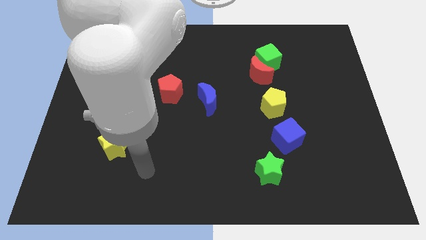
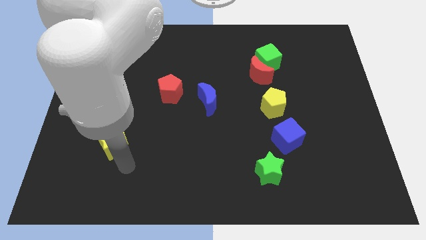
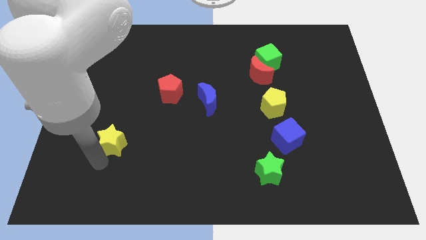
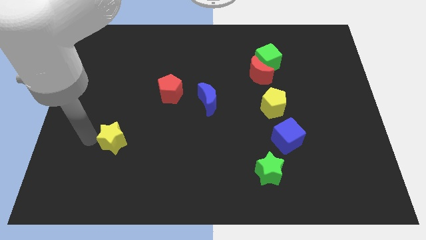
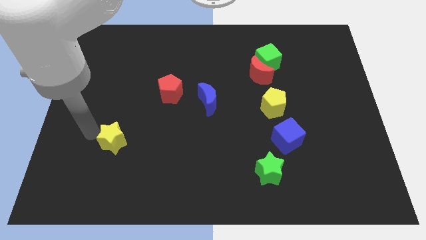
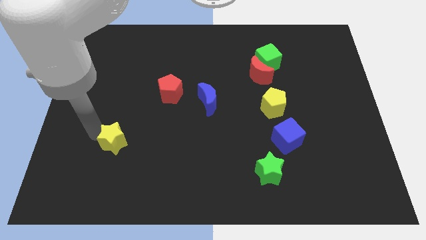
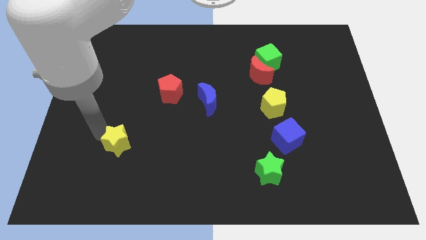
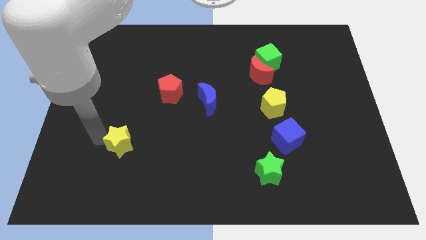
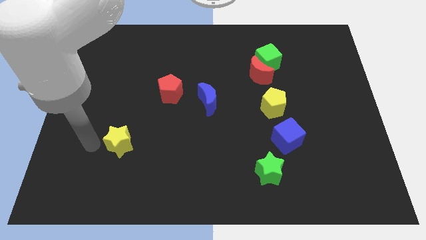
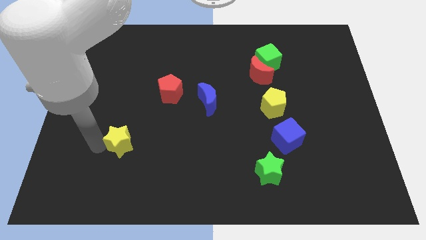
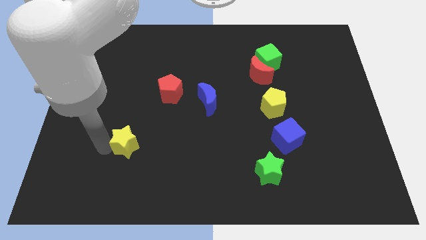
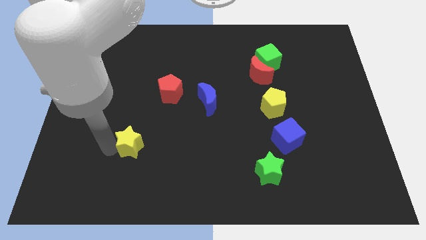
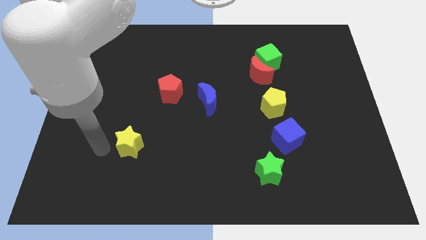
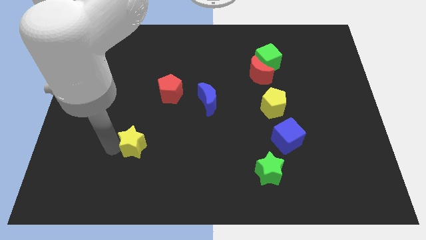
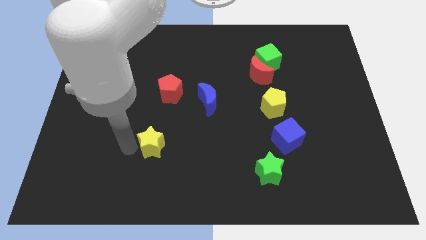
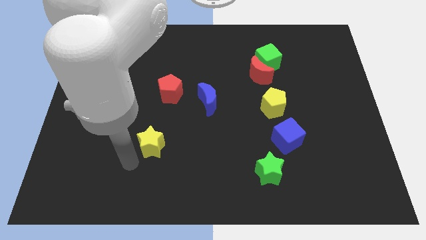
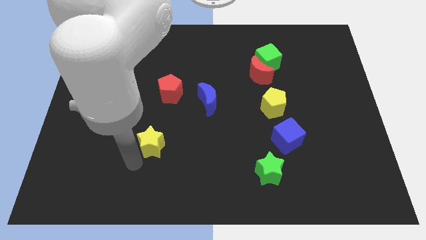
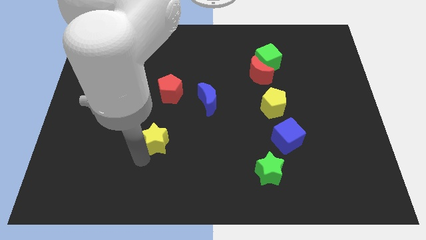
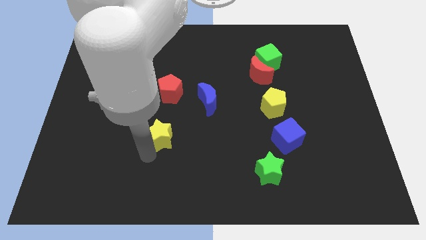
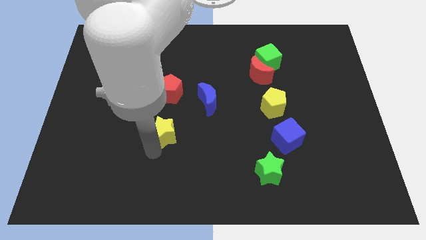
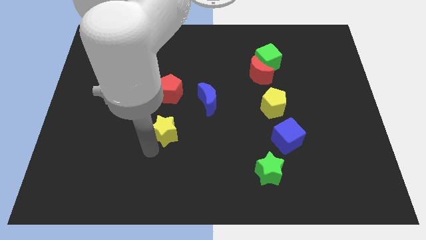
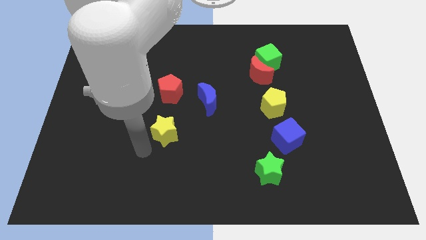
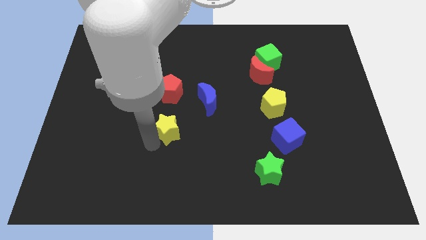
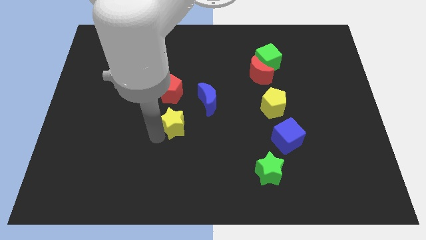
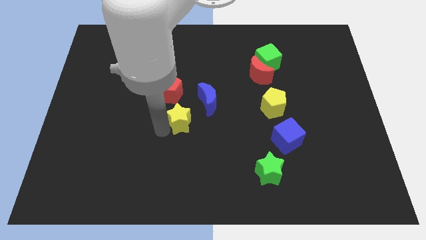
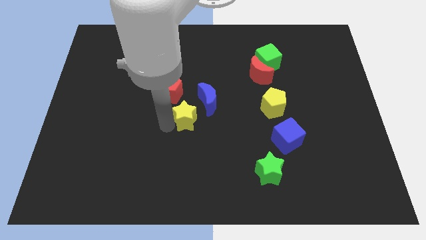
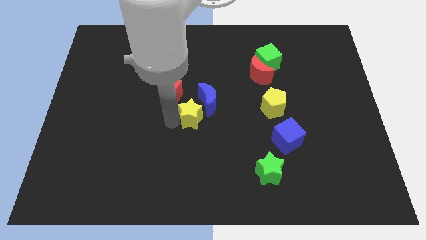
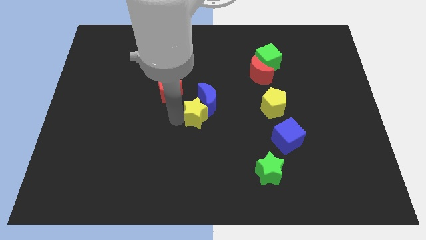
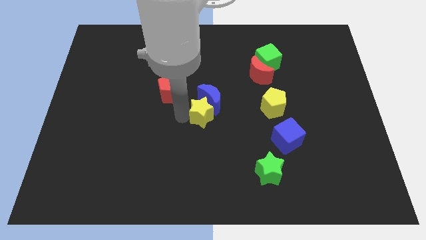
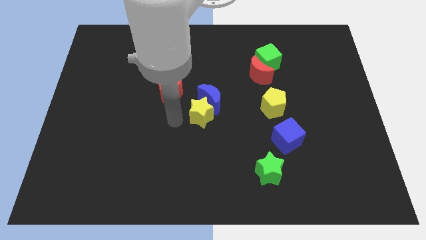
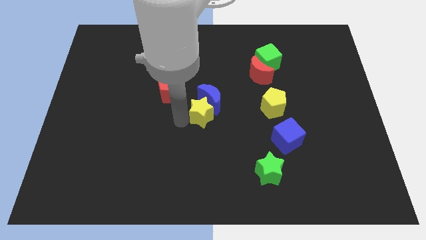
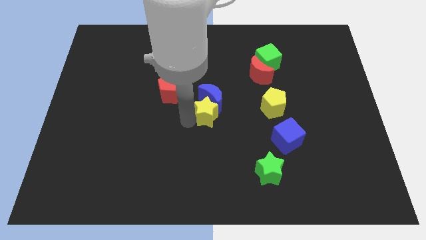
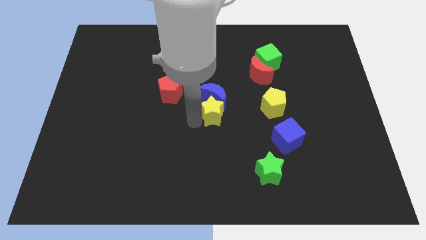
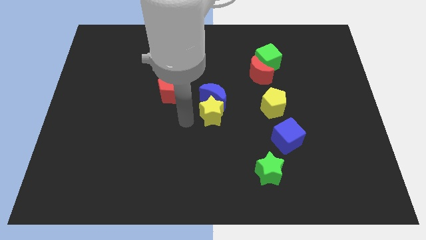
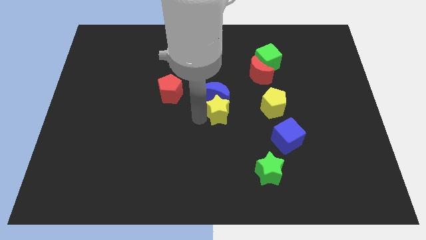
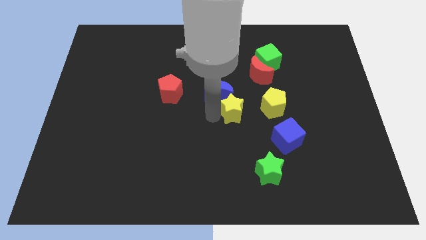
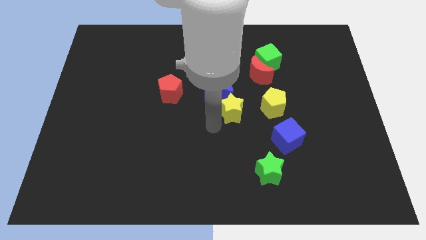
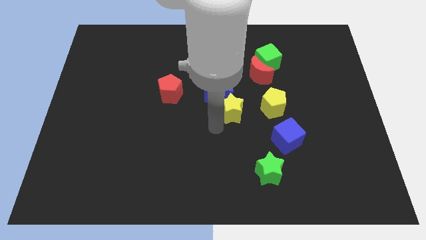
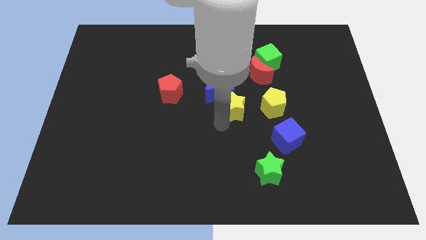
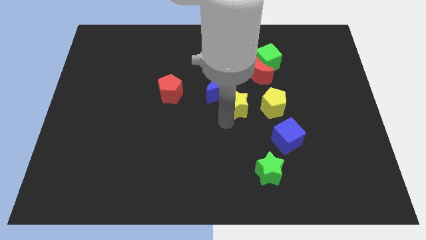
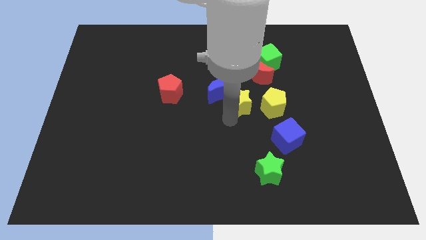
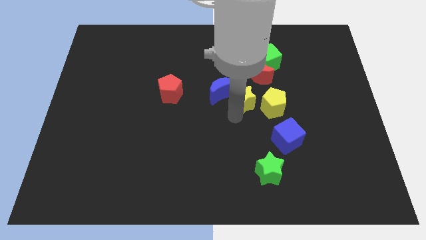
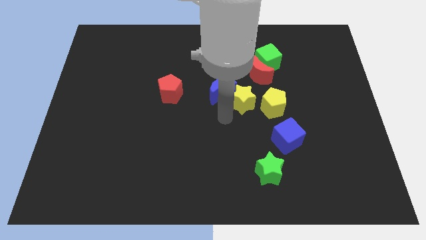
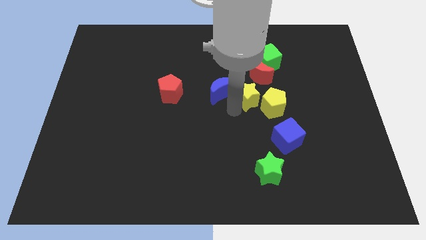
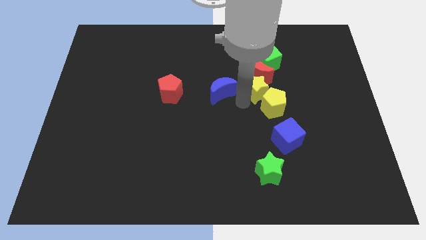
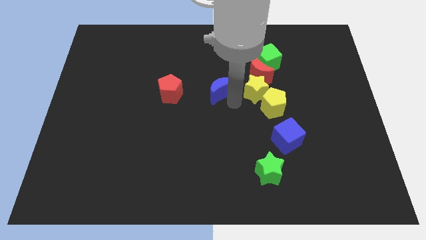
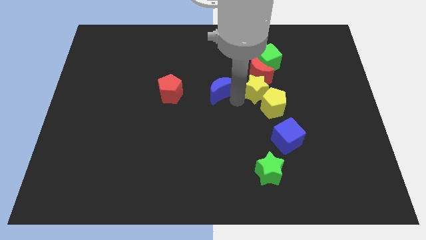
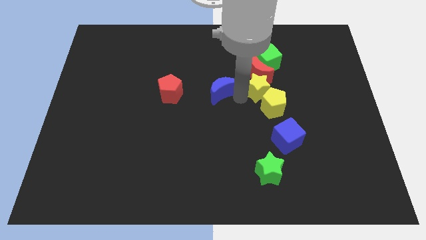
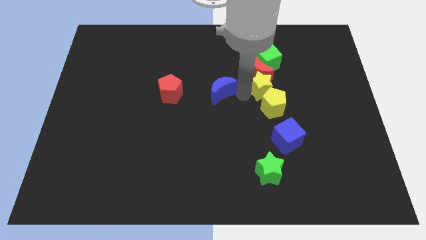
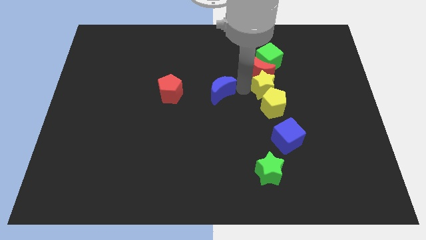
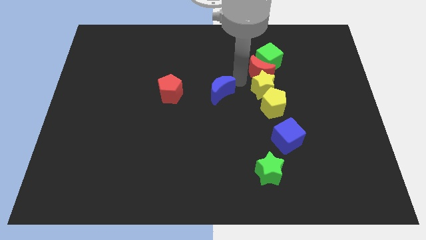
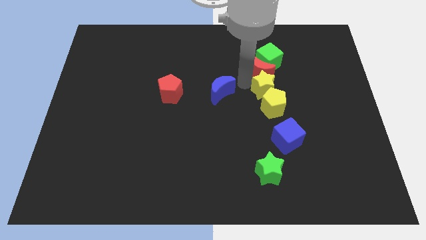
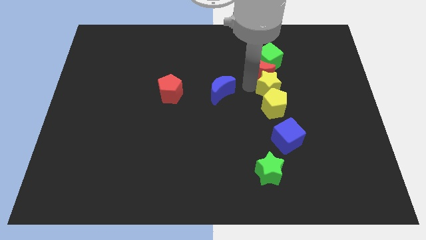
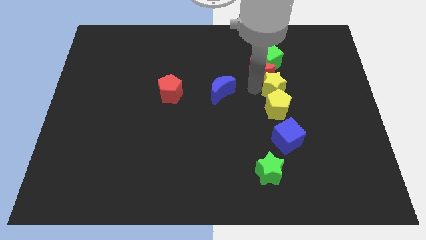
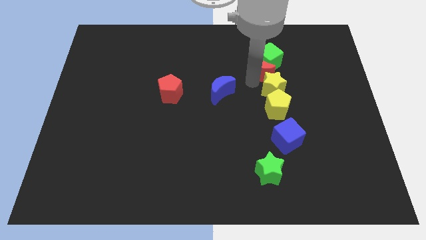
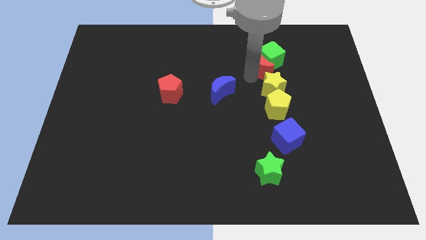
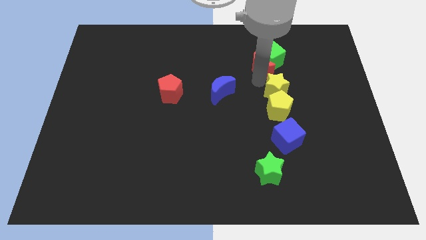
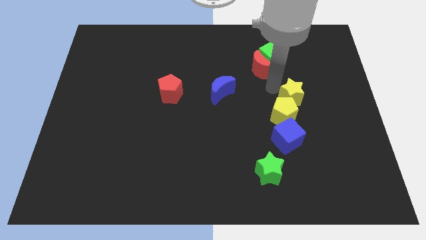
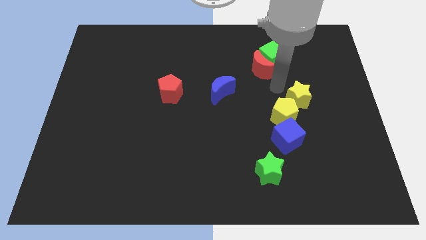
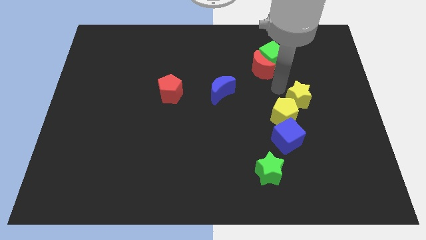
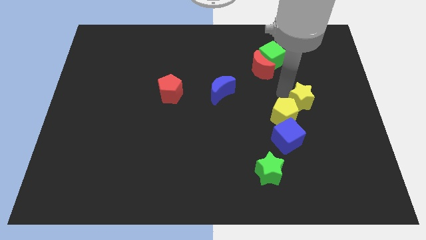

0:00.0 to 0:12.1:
slide the yellow star to the right of the yellow pentagon

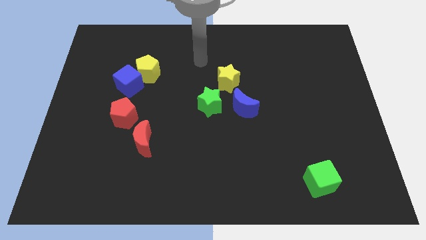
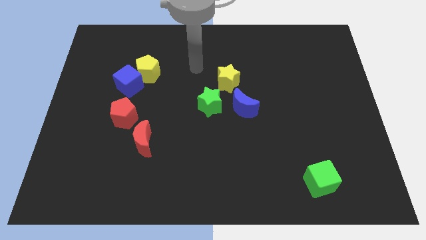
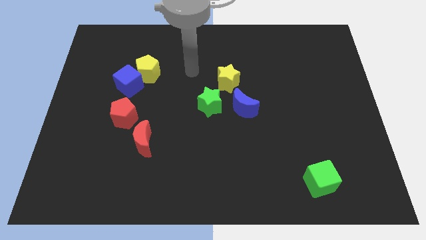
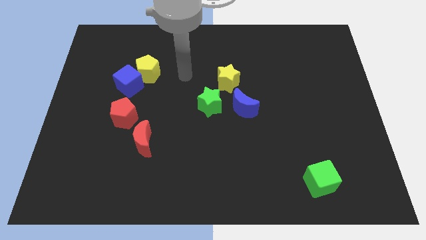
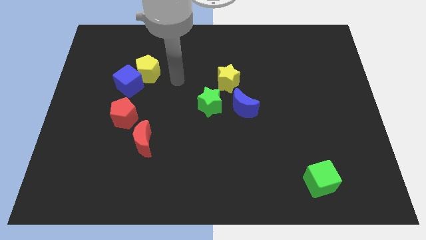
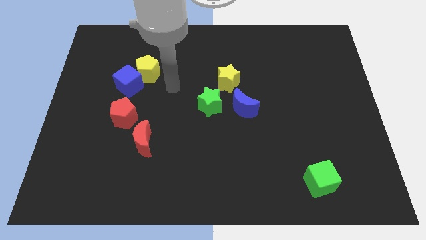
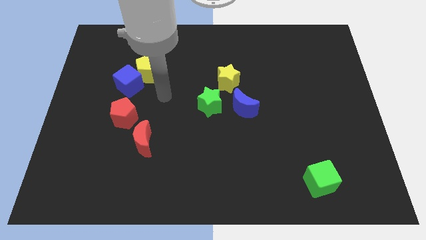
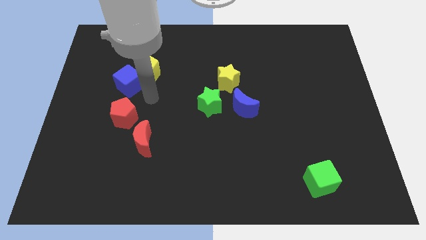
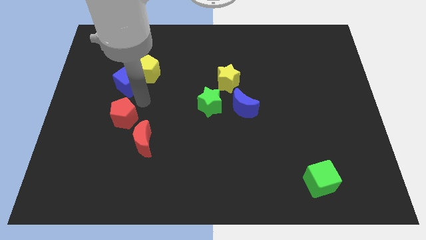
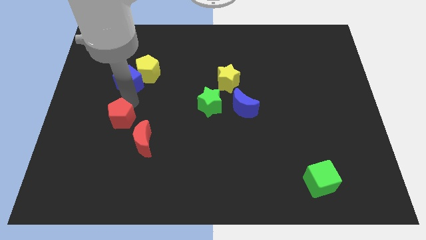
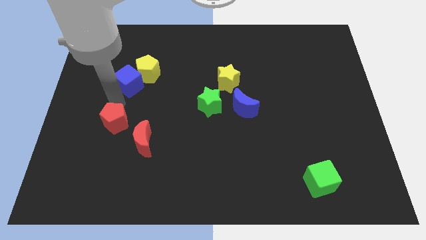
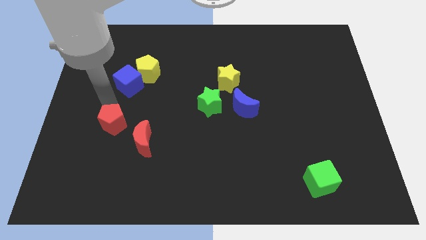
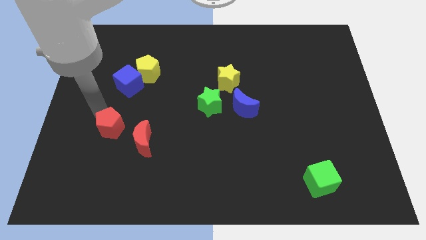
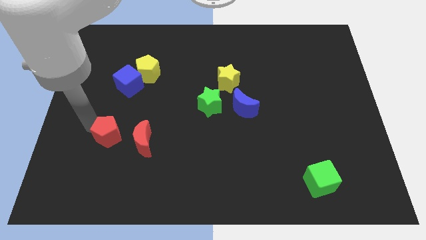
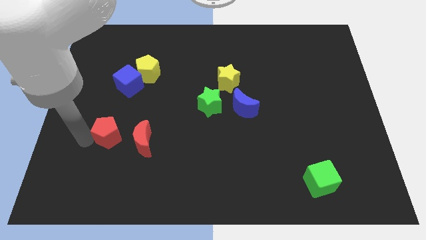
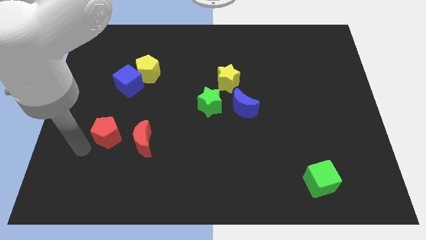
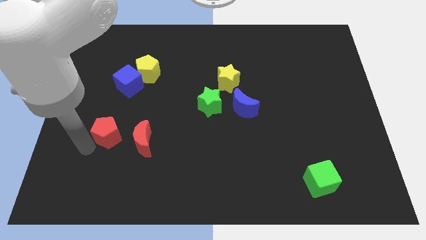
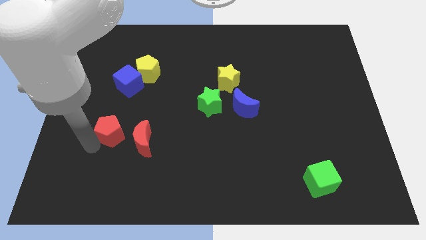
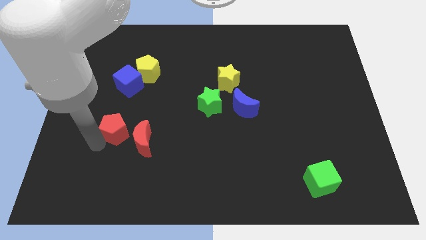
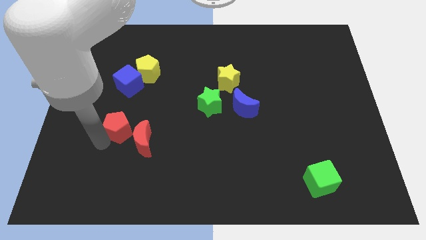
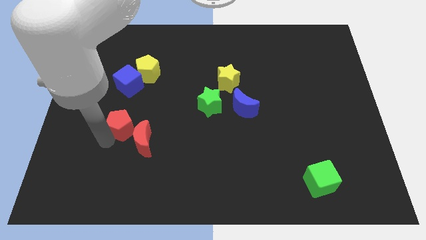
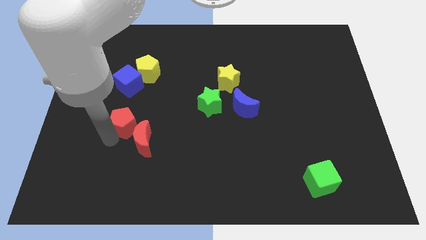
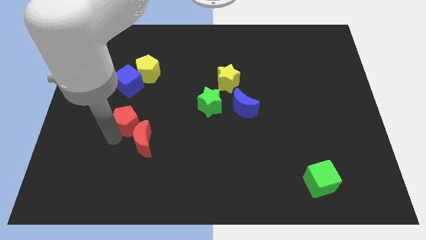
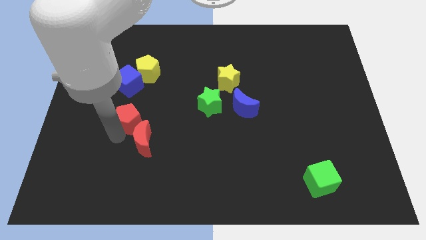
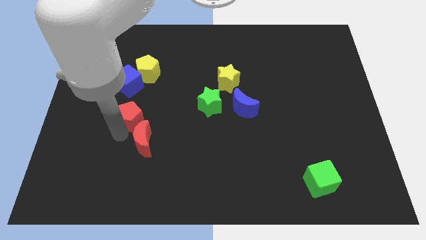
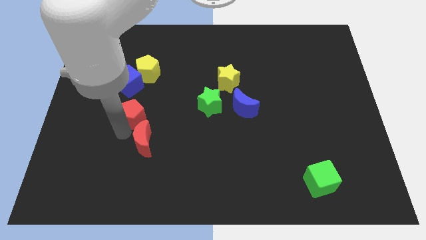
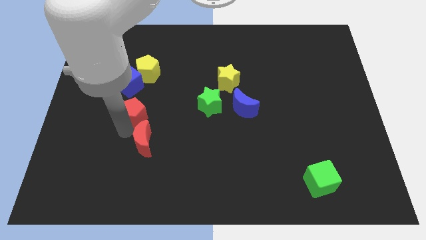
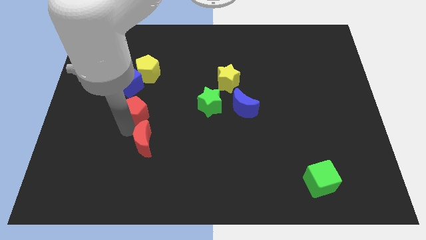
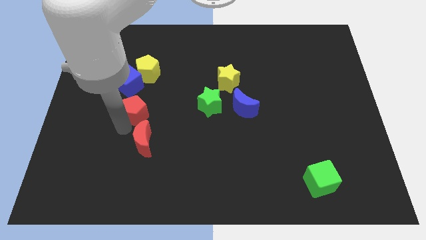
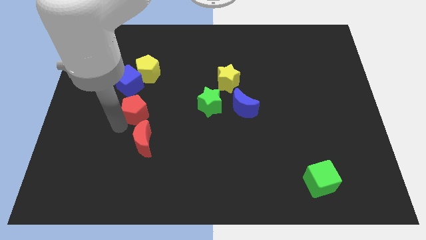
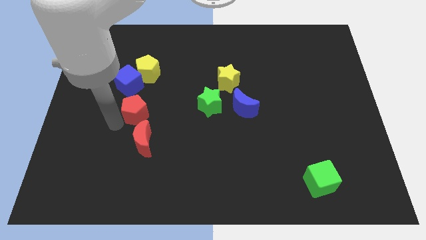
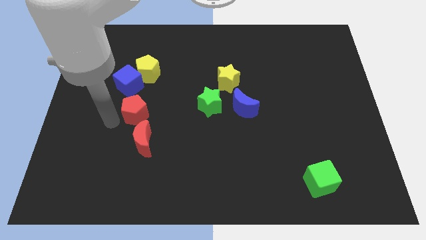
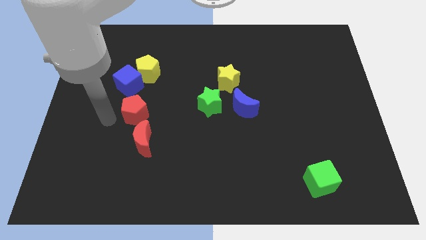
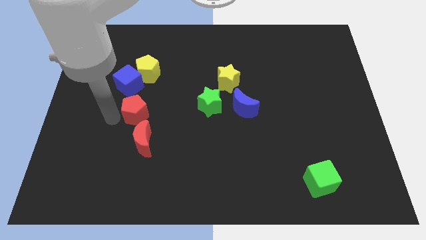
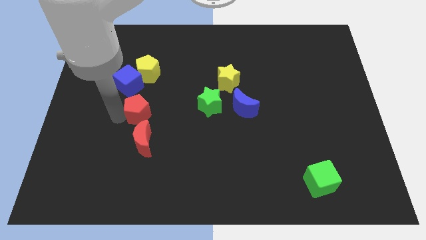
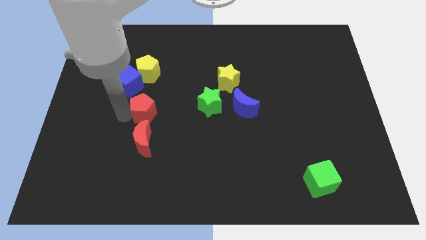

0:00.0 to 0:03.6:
push the red pentagon left of the green star
